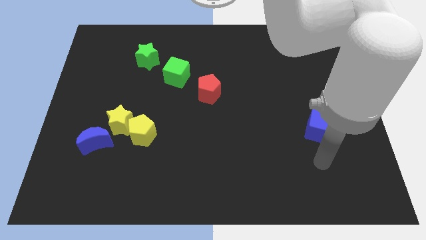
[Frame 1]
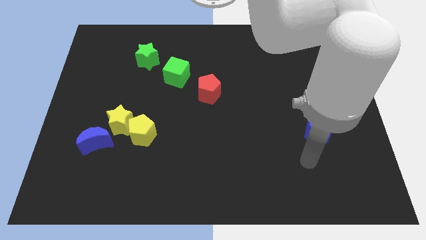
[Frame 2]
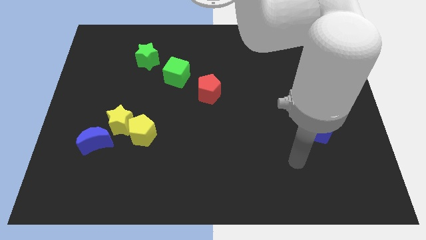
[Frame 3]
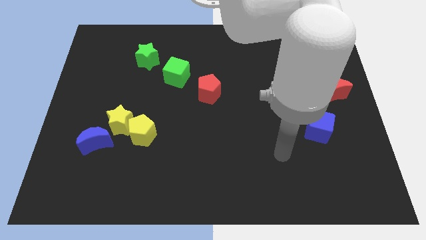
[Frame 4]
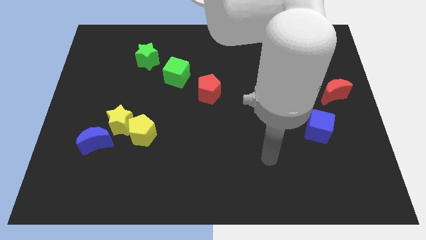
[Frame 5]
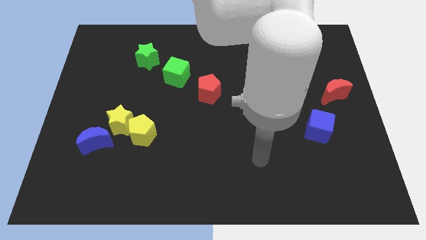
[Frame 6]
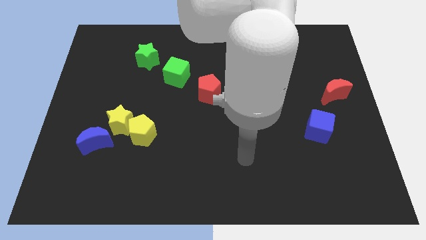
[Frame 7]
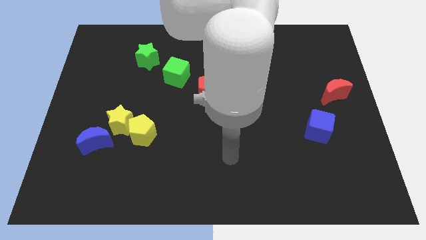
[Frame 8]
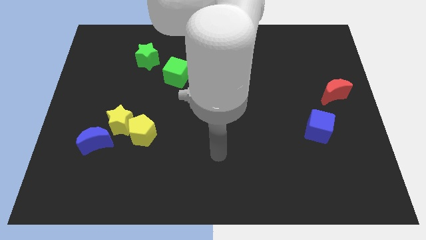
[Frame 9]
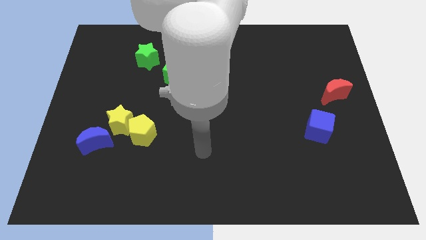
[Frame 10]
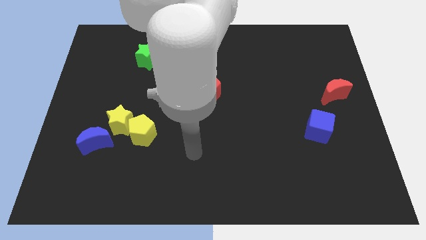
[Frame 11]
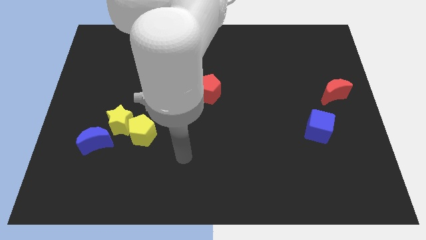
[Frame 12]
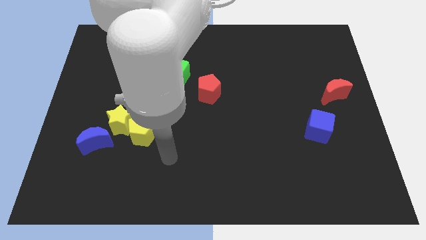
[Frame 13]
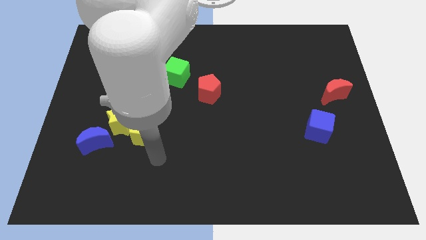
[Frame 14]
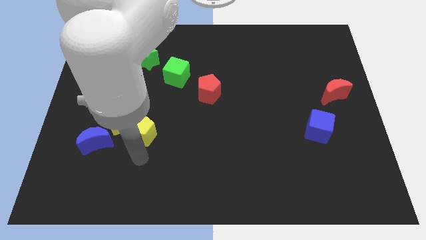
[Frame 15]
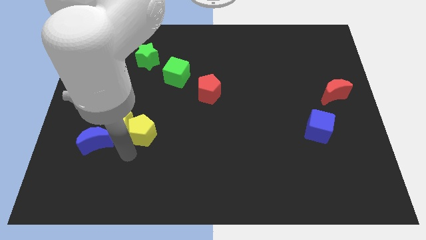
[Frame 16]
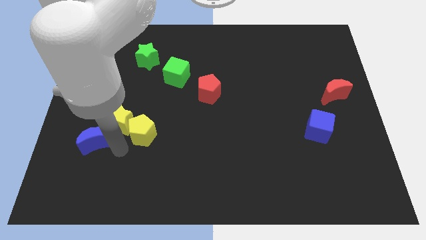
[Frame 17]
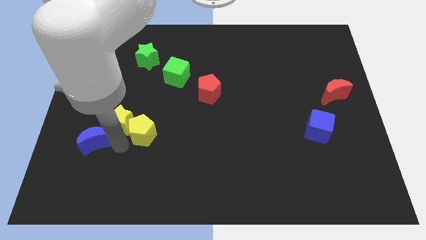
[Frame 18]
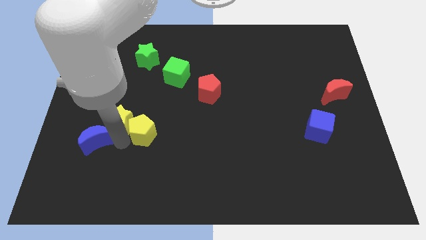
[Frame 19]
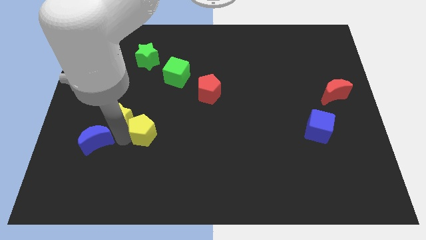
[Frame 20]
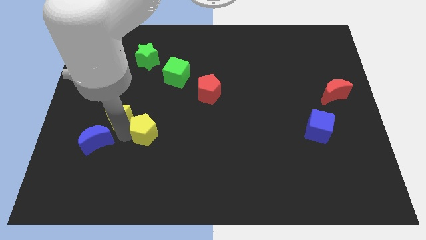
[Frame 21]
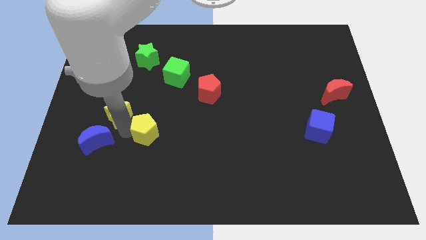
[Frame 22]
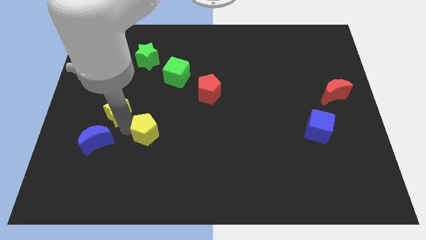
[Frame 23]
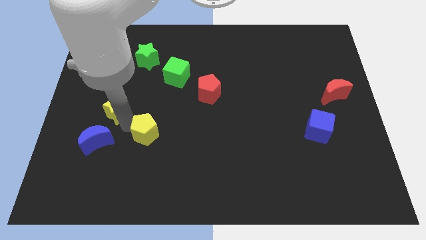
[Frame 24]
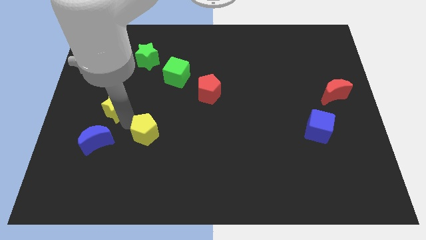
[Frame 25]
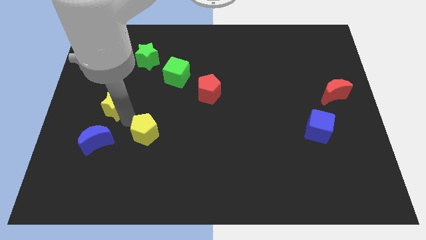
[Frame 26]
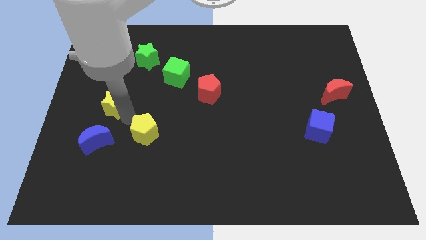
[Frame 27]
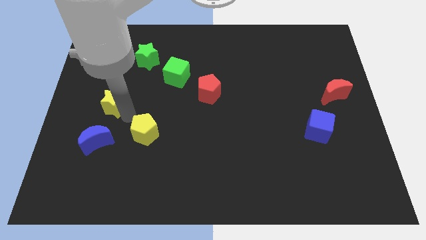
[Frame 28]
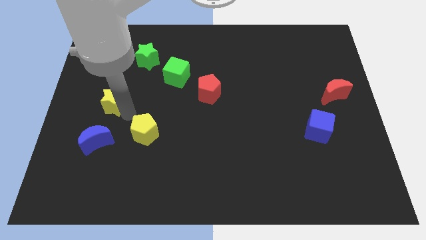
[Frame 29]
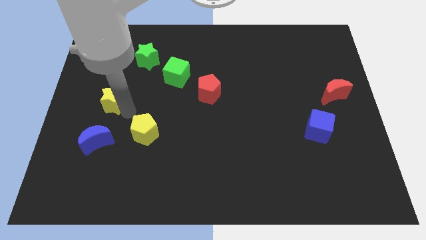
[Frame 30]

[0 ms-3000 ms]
separate the yellow star from the yellow pentagon and blue moon

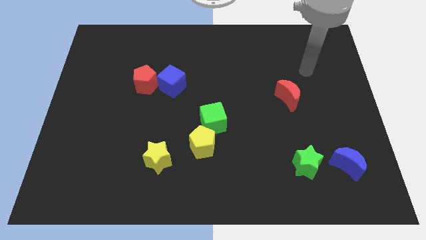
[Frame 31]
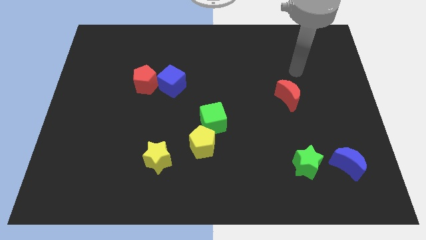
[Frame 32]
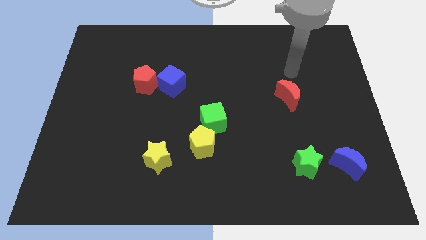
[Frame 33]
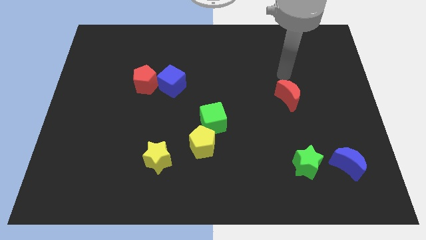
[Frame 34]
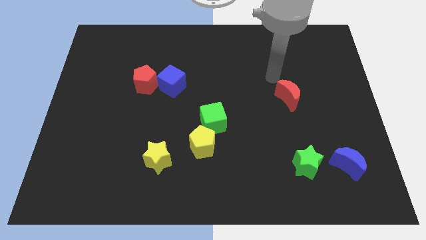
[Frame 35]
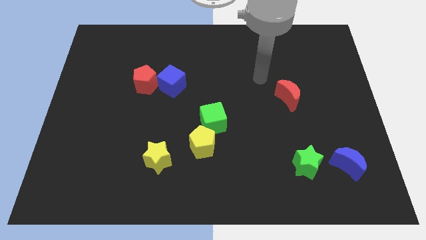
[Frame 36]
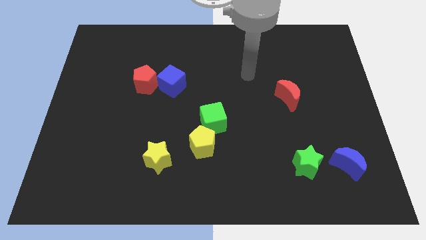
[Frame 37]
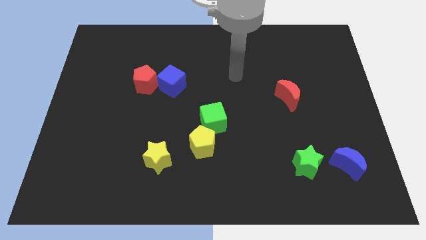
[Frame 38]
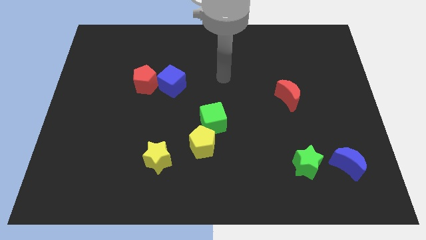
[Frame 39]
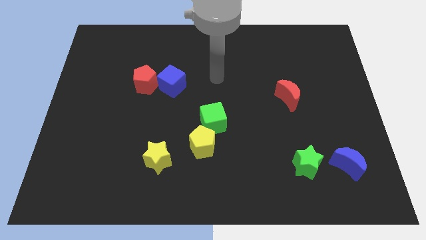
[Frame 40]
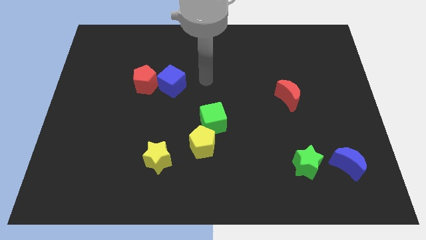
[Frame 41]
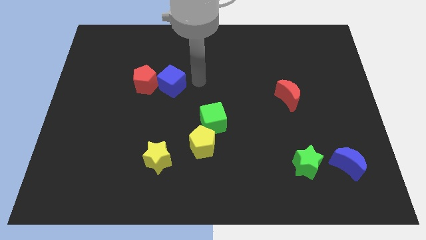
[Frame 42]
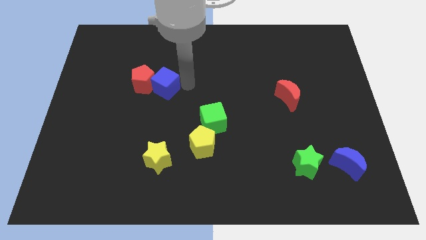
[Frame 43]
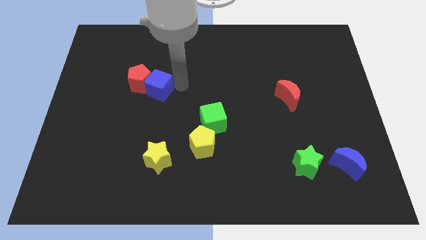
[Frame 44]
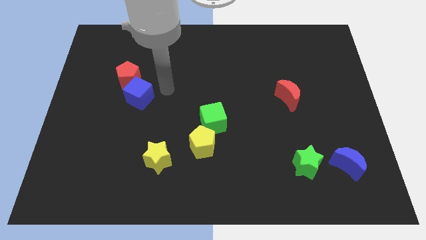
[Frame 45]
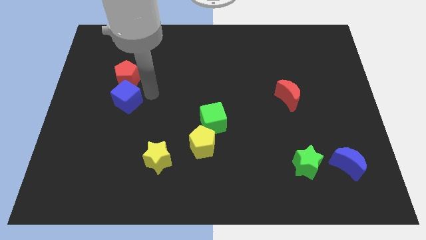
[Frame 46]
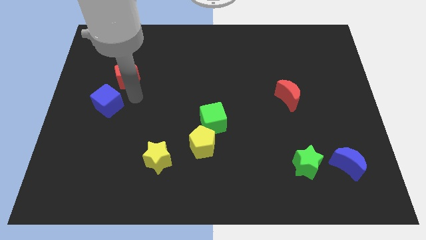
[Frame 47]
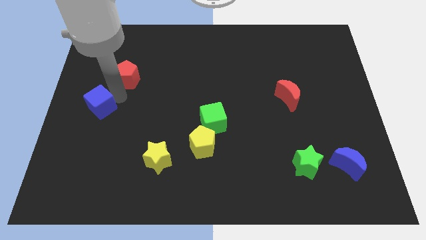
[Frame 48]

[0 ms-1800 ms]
pull the red pentagon apart from the blue cube

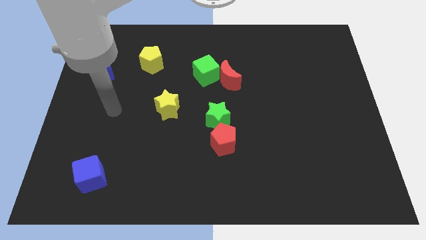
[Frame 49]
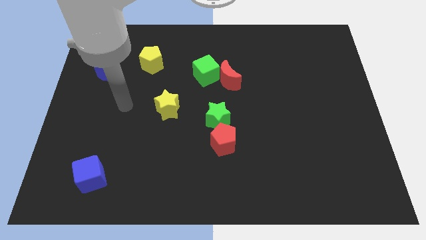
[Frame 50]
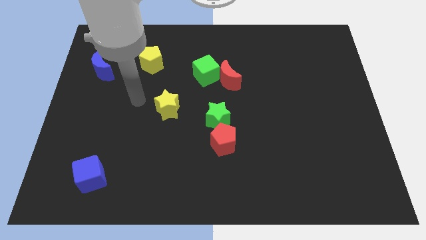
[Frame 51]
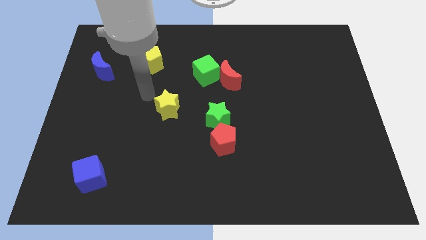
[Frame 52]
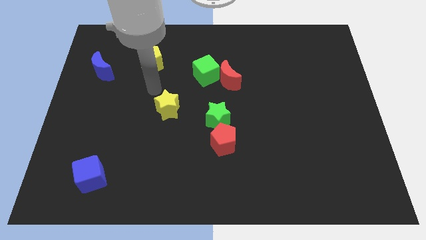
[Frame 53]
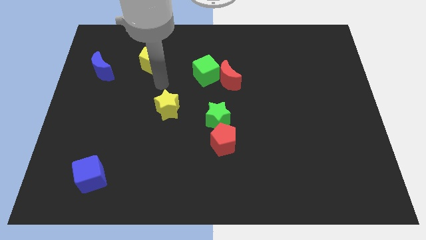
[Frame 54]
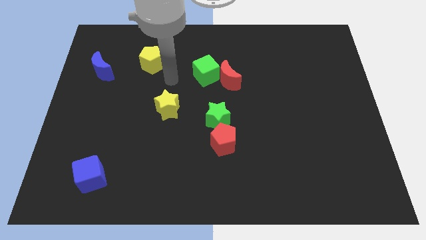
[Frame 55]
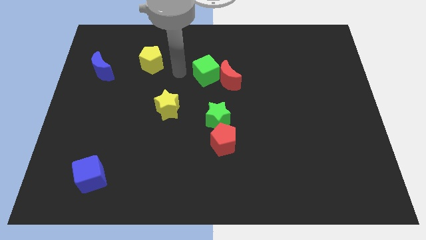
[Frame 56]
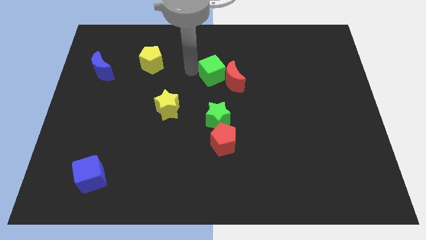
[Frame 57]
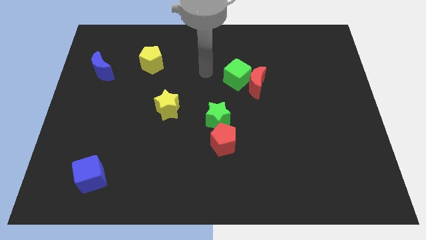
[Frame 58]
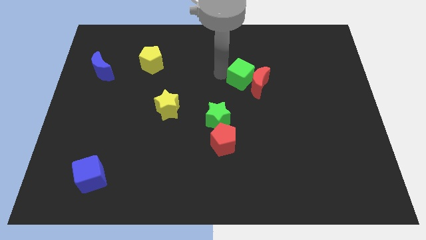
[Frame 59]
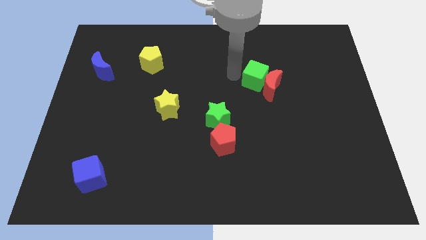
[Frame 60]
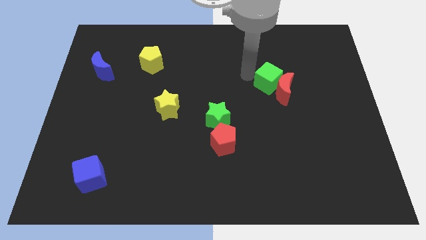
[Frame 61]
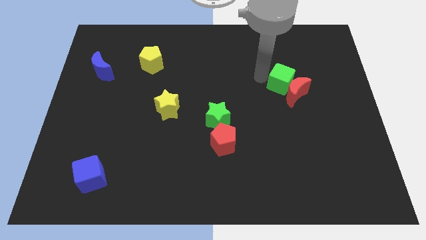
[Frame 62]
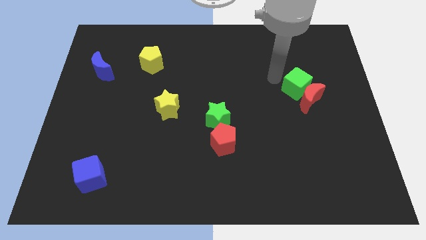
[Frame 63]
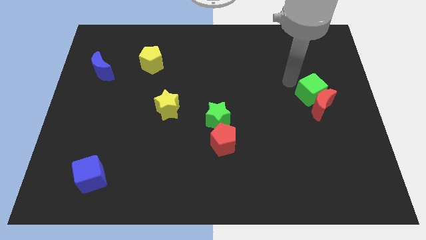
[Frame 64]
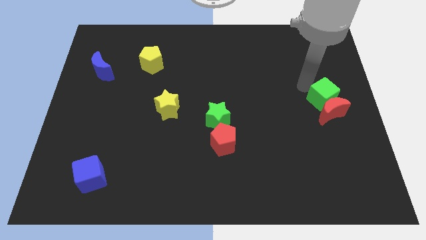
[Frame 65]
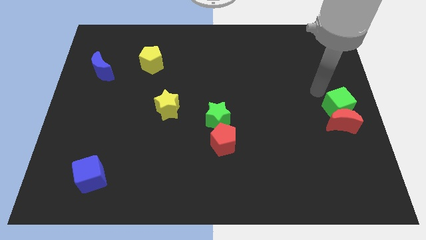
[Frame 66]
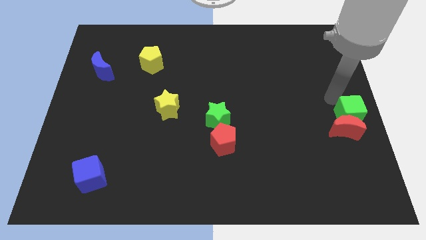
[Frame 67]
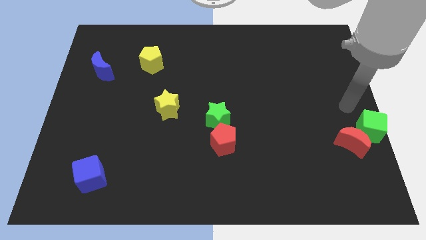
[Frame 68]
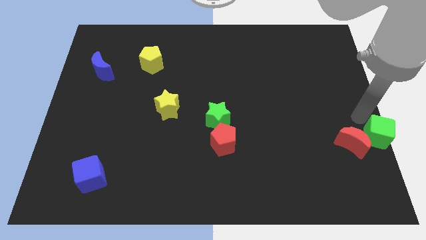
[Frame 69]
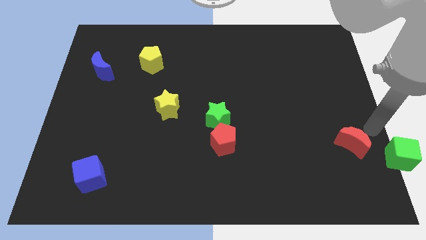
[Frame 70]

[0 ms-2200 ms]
pull the red moon apart from the green cube

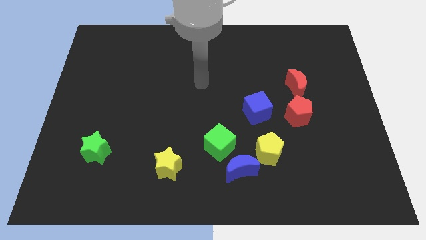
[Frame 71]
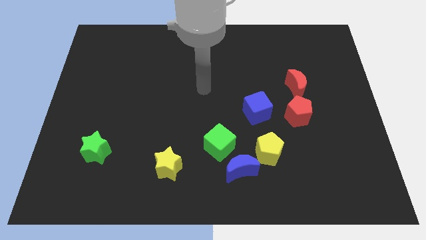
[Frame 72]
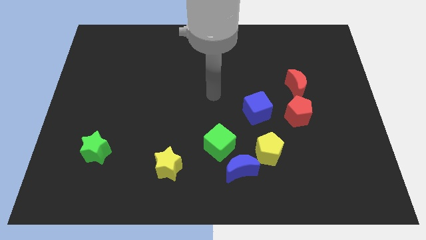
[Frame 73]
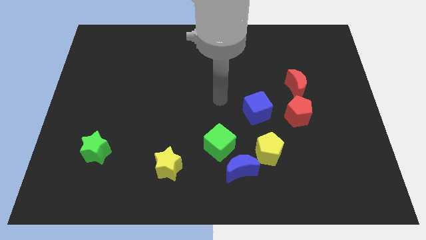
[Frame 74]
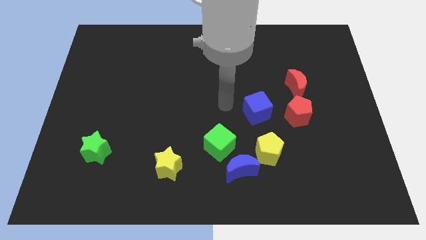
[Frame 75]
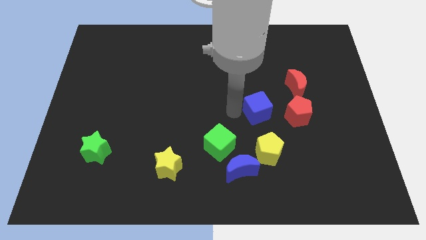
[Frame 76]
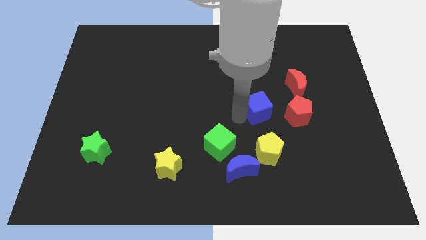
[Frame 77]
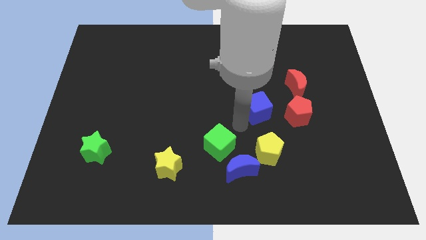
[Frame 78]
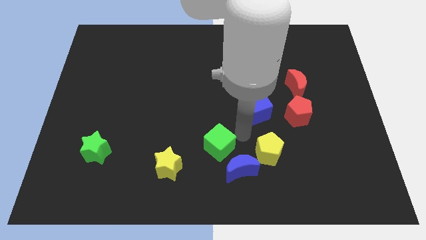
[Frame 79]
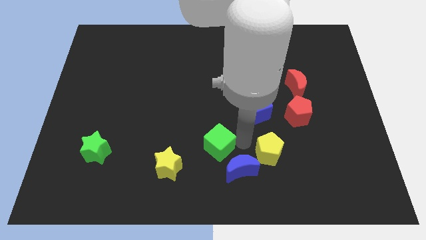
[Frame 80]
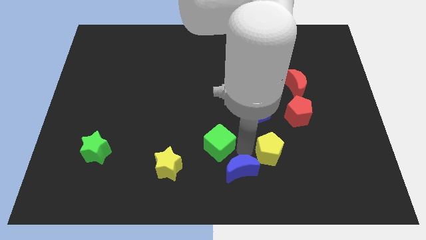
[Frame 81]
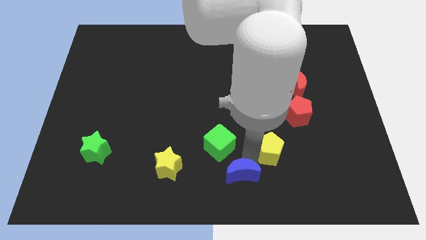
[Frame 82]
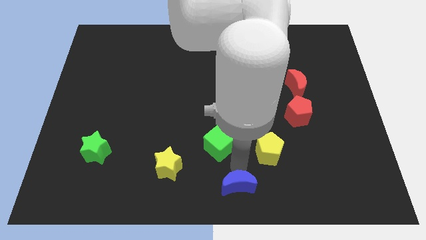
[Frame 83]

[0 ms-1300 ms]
move the green cube away from the blue moon

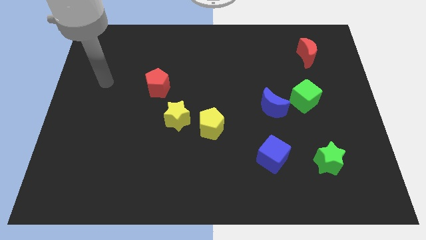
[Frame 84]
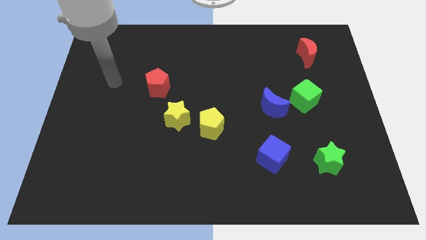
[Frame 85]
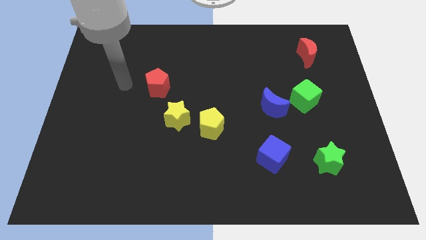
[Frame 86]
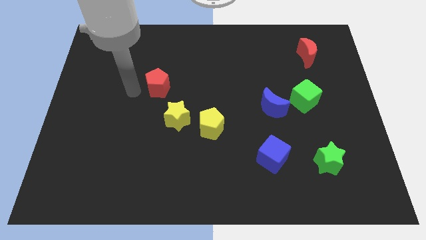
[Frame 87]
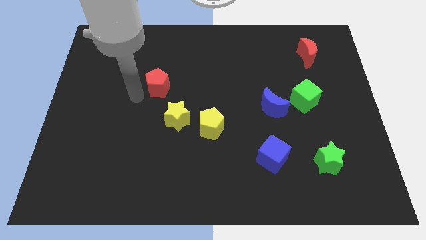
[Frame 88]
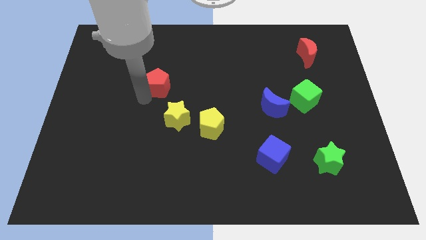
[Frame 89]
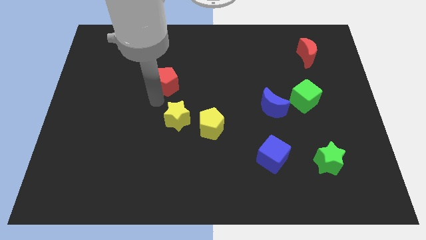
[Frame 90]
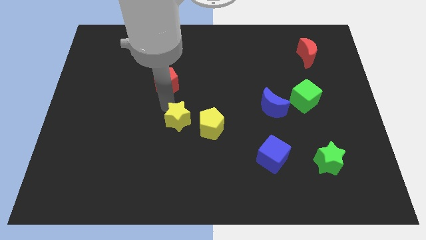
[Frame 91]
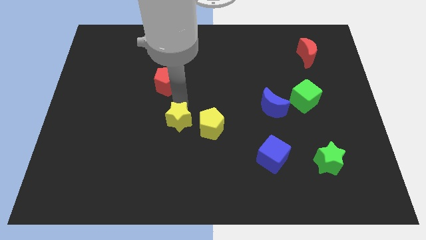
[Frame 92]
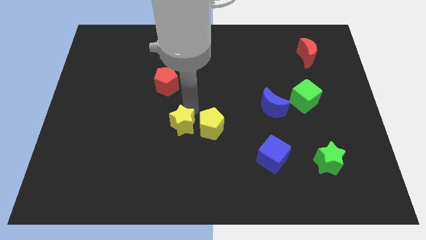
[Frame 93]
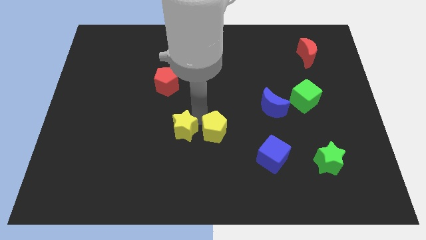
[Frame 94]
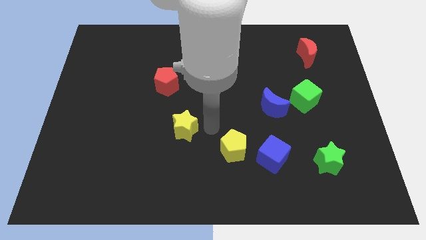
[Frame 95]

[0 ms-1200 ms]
pull the yellow star apart from the yellow pentagon
